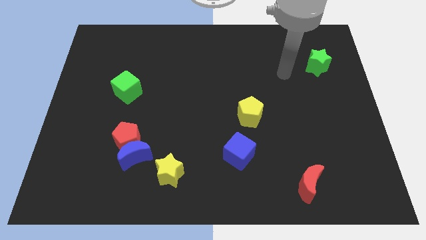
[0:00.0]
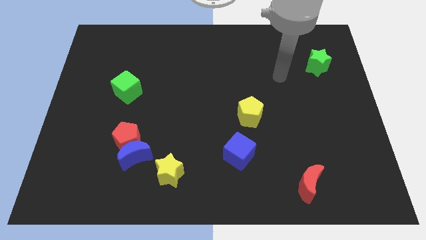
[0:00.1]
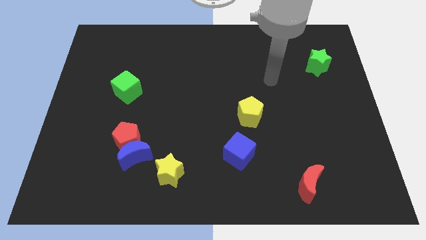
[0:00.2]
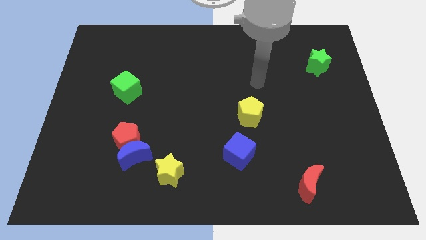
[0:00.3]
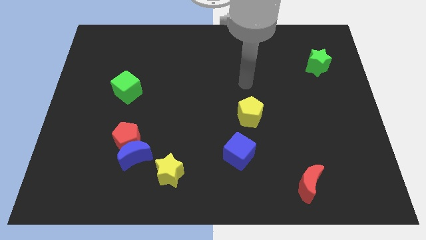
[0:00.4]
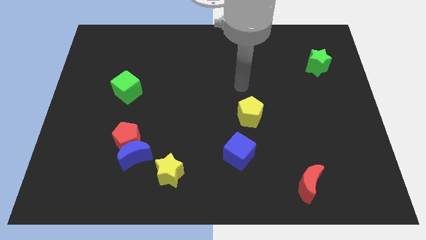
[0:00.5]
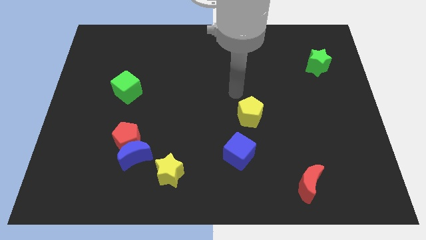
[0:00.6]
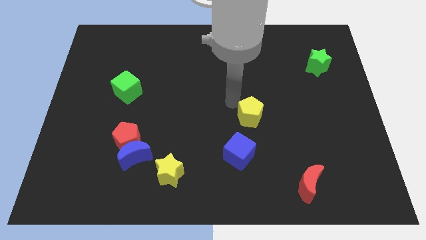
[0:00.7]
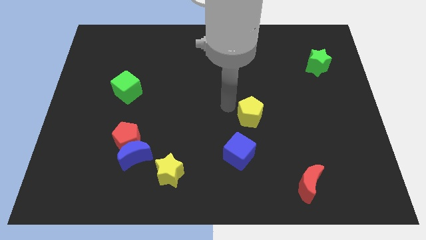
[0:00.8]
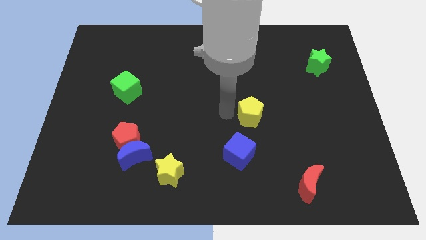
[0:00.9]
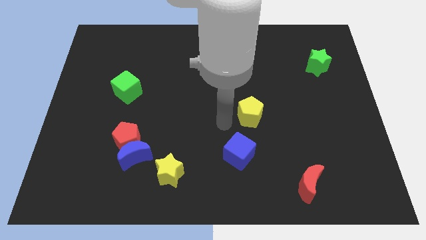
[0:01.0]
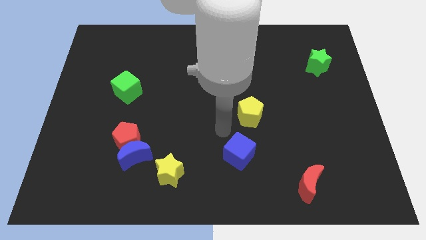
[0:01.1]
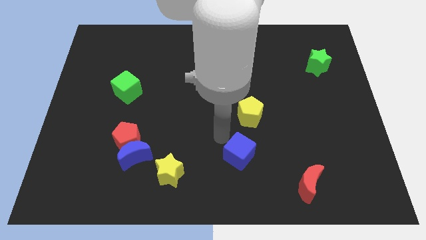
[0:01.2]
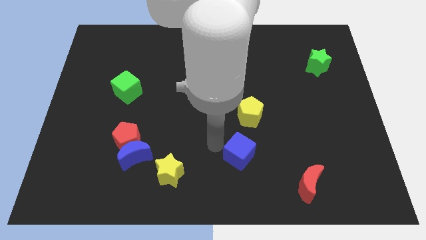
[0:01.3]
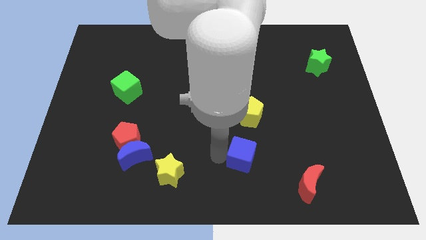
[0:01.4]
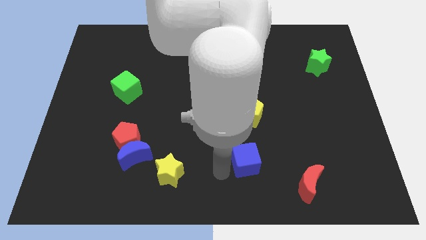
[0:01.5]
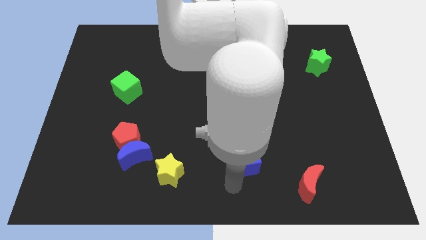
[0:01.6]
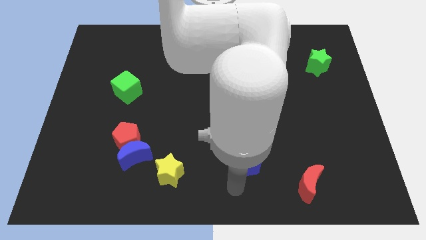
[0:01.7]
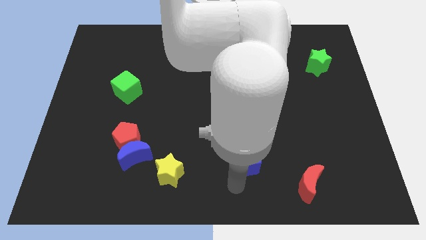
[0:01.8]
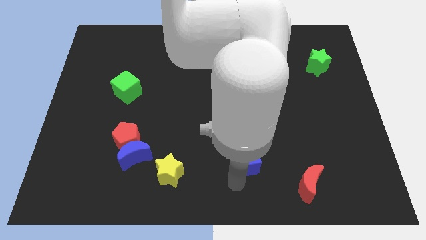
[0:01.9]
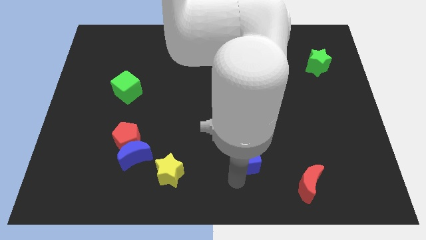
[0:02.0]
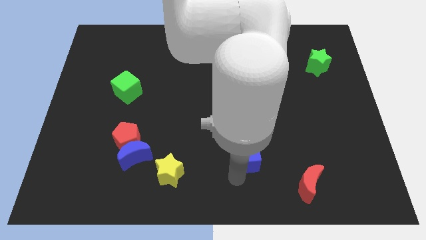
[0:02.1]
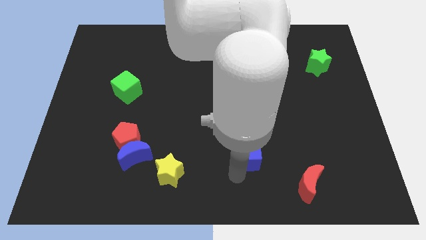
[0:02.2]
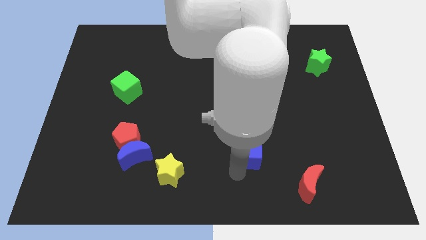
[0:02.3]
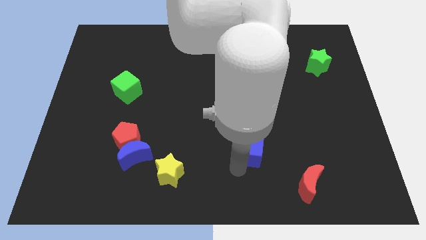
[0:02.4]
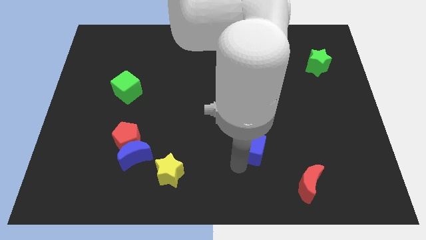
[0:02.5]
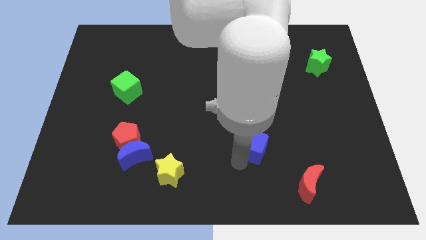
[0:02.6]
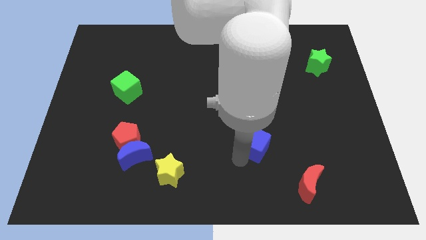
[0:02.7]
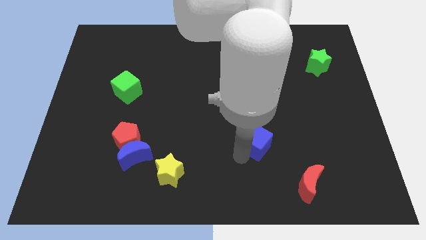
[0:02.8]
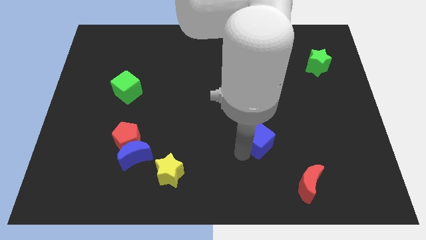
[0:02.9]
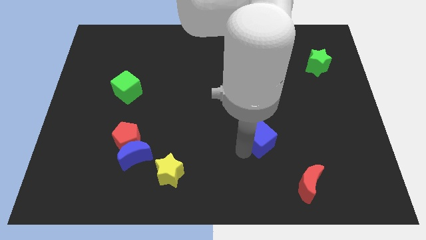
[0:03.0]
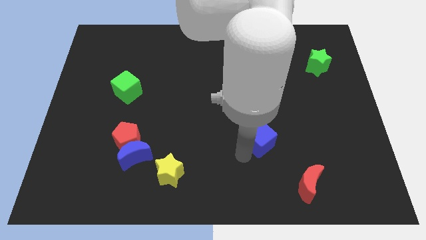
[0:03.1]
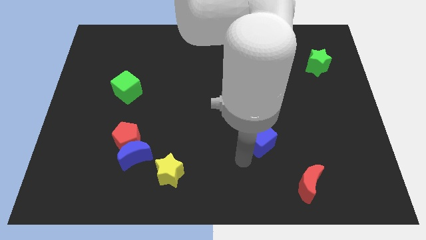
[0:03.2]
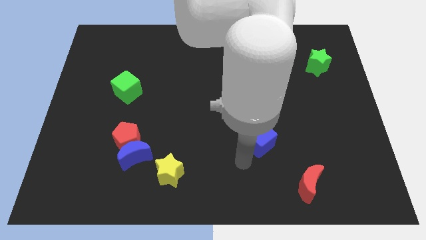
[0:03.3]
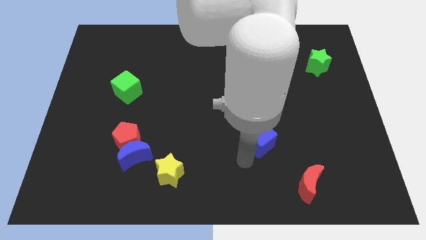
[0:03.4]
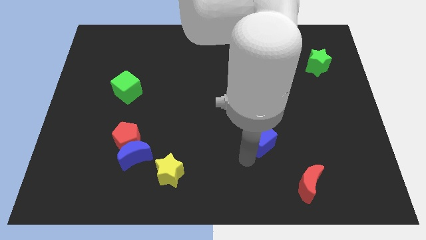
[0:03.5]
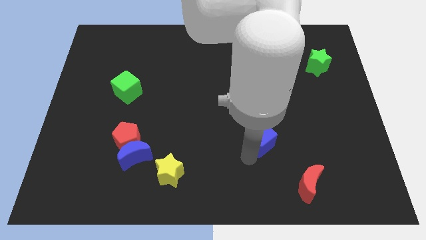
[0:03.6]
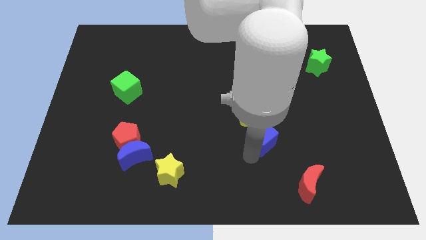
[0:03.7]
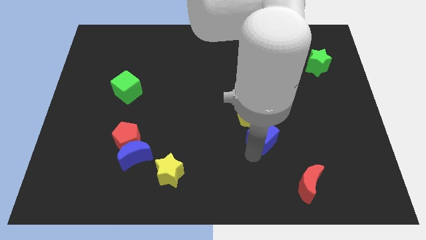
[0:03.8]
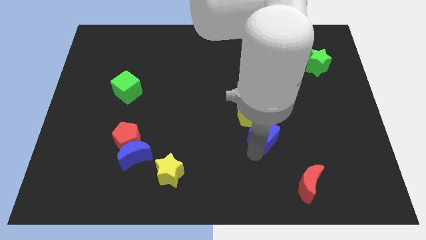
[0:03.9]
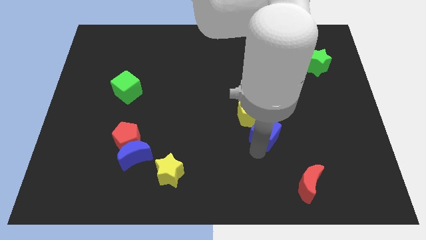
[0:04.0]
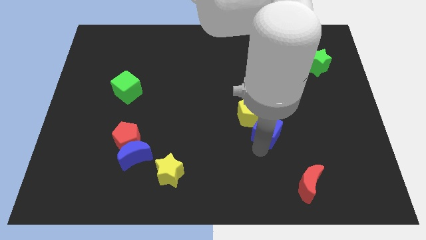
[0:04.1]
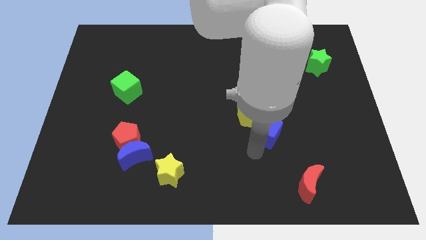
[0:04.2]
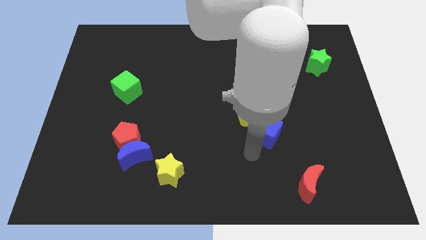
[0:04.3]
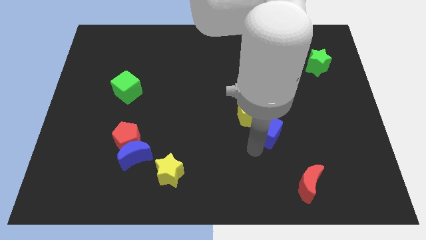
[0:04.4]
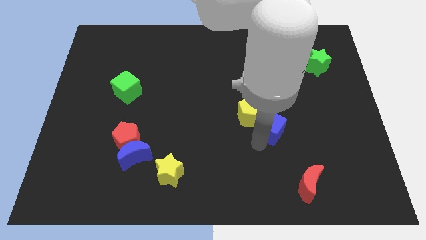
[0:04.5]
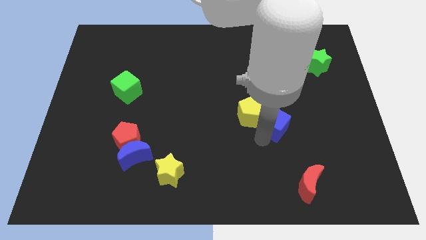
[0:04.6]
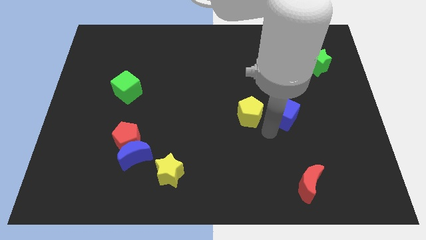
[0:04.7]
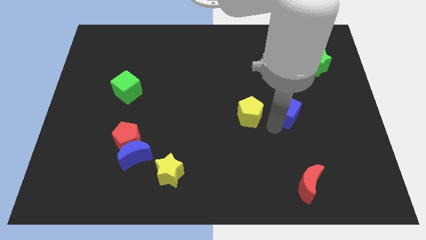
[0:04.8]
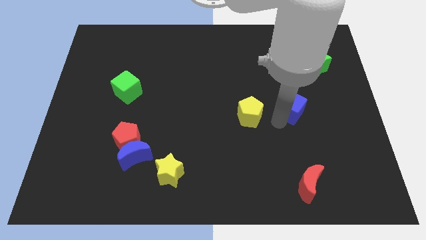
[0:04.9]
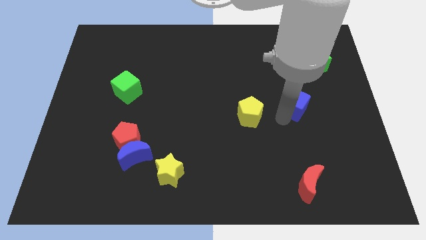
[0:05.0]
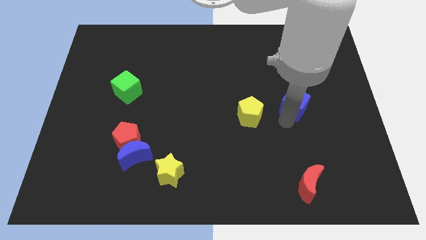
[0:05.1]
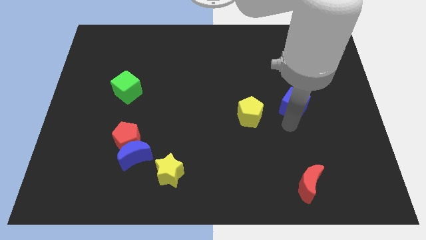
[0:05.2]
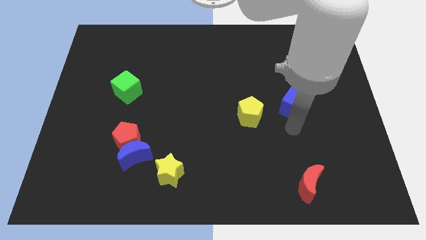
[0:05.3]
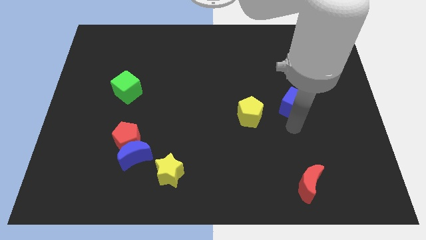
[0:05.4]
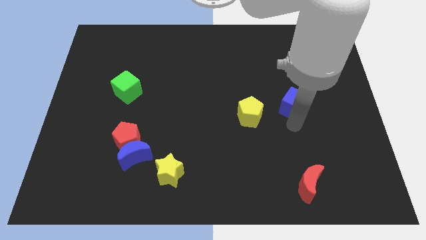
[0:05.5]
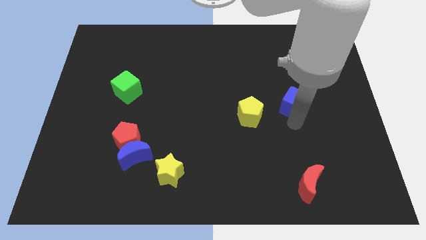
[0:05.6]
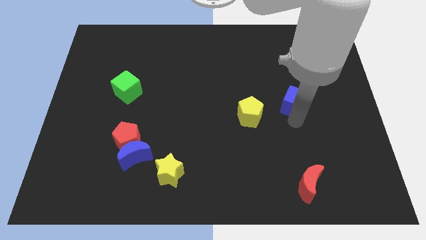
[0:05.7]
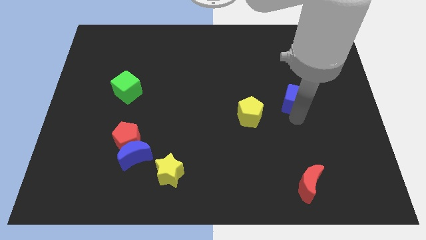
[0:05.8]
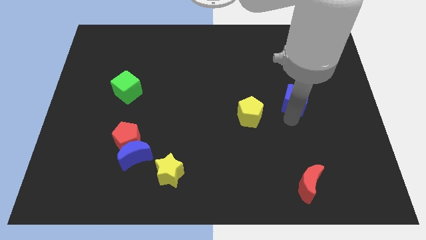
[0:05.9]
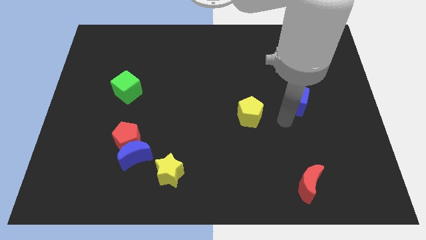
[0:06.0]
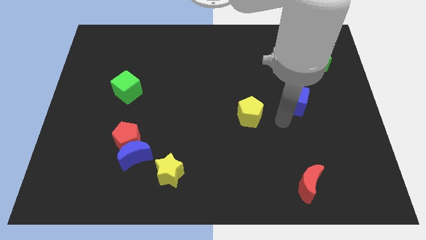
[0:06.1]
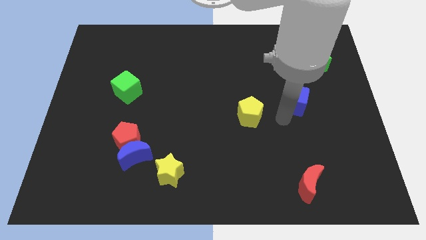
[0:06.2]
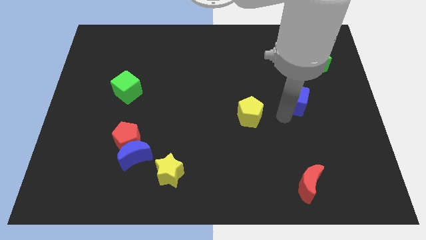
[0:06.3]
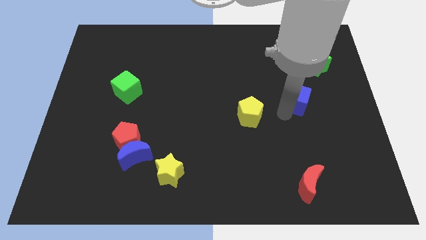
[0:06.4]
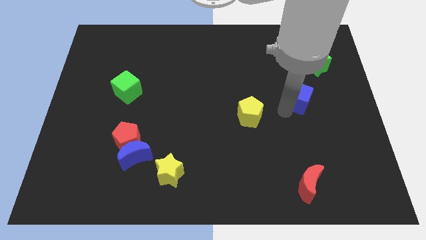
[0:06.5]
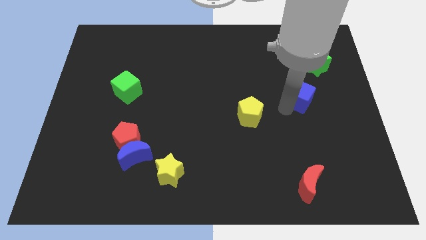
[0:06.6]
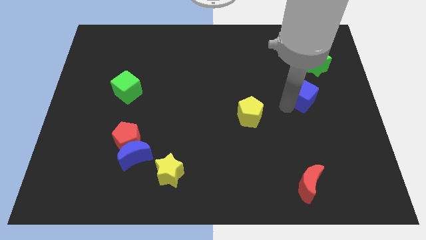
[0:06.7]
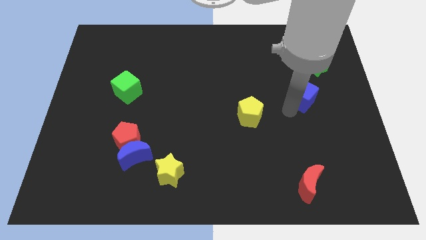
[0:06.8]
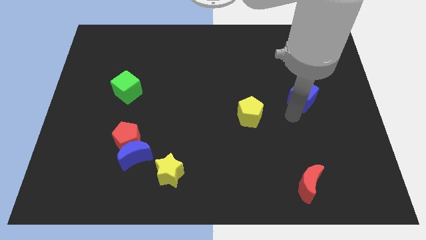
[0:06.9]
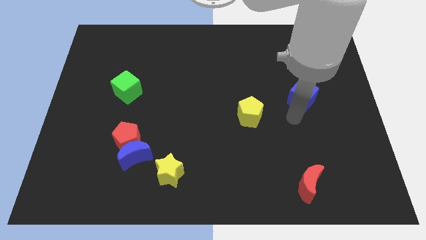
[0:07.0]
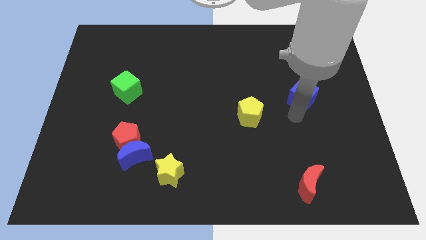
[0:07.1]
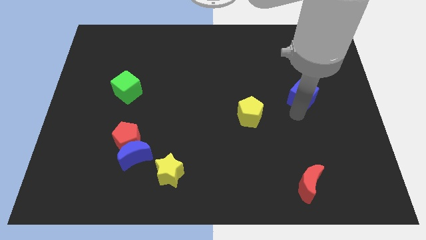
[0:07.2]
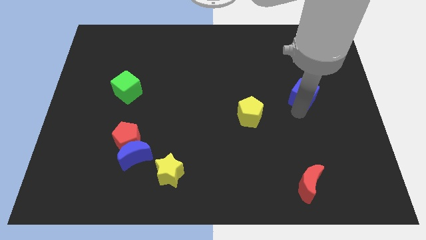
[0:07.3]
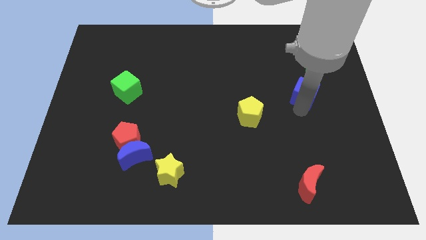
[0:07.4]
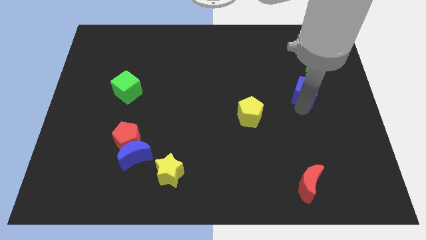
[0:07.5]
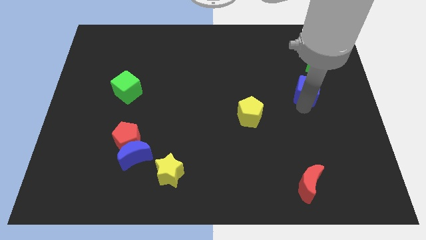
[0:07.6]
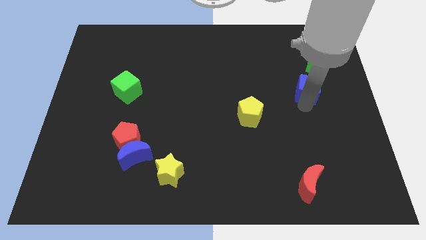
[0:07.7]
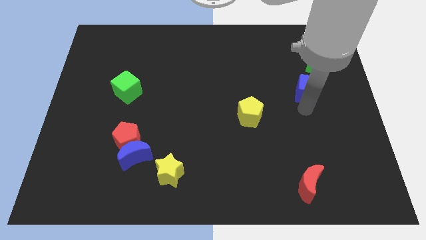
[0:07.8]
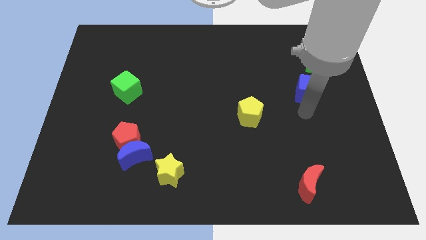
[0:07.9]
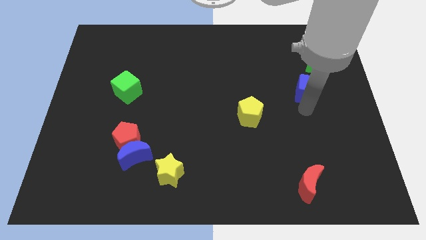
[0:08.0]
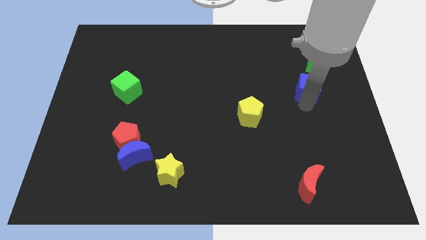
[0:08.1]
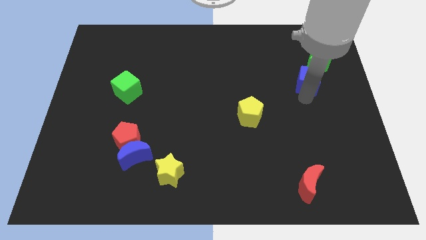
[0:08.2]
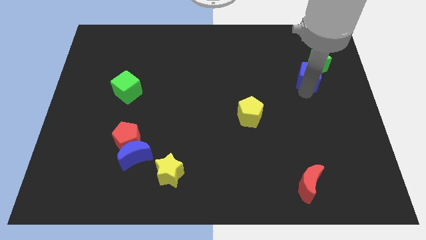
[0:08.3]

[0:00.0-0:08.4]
move the blue cube close to the green star
